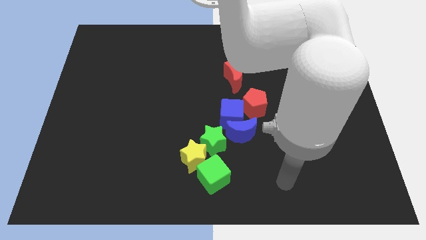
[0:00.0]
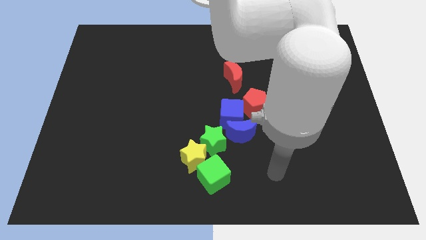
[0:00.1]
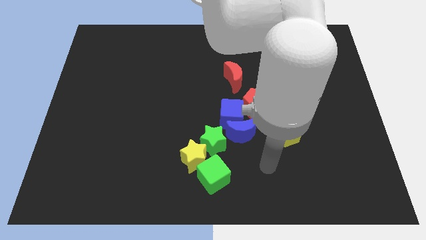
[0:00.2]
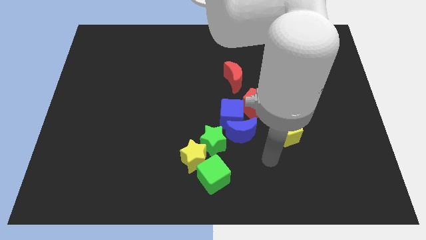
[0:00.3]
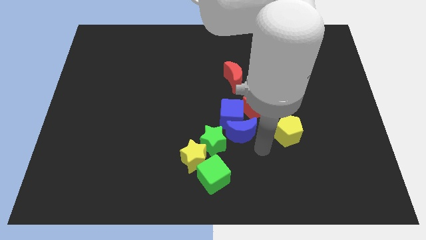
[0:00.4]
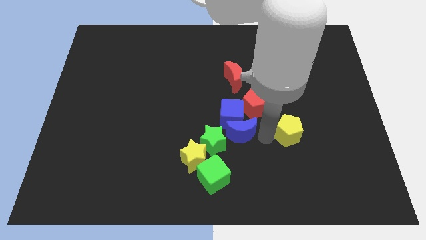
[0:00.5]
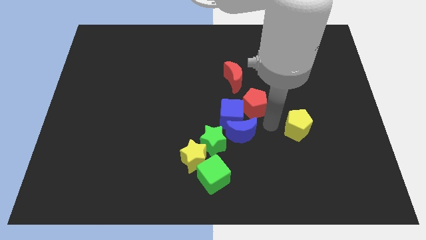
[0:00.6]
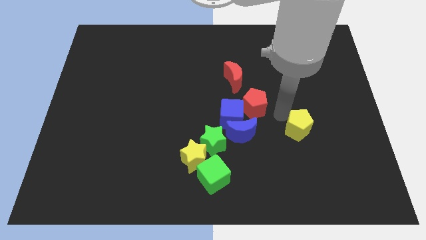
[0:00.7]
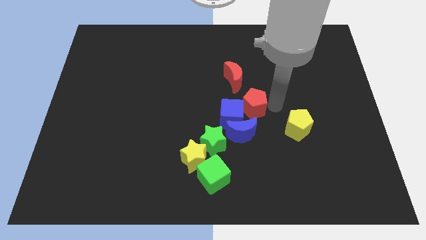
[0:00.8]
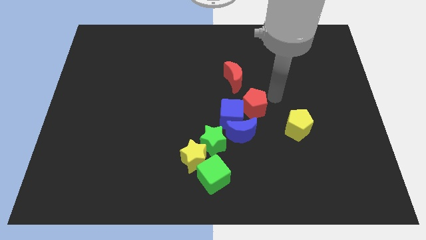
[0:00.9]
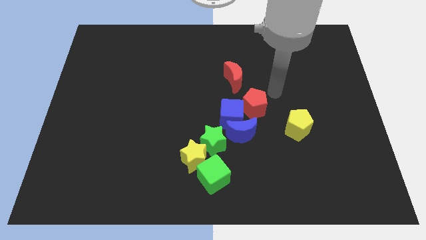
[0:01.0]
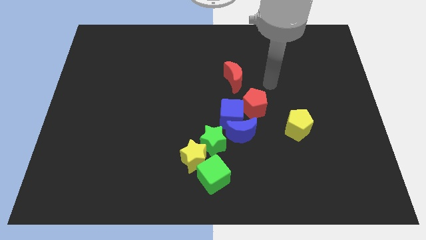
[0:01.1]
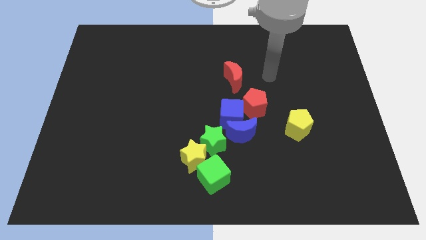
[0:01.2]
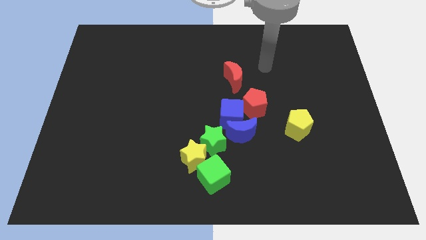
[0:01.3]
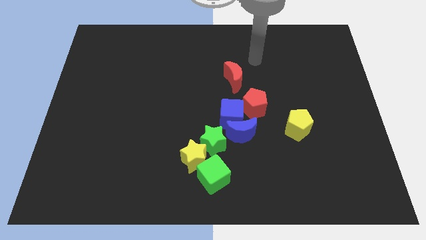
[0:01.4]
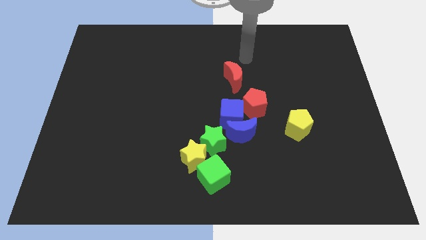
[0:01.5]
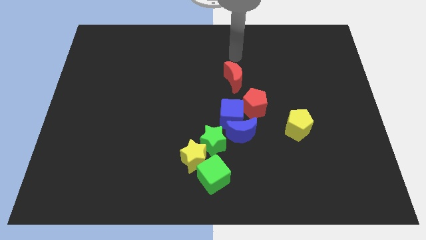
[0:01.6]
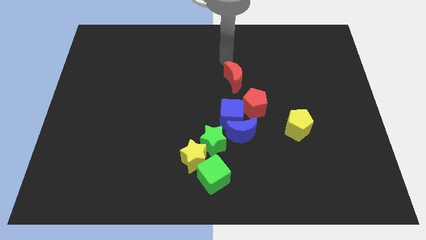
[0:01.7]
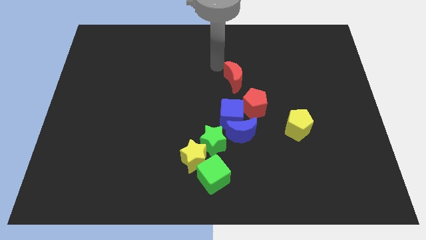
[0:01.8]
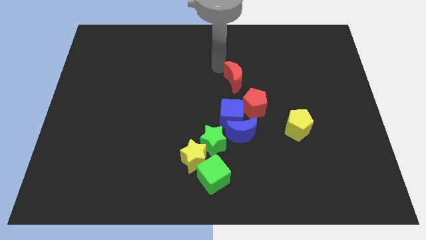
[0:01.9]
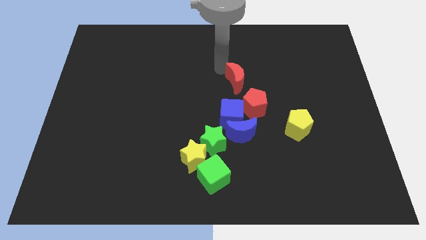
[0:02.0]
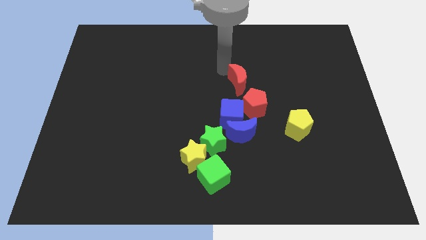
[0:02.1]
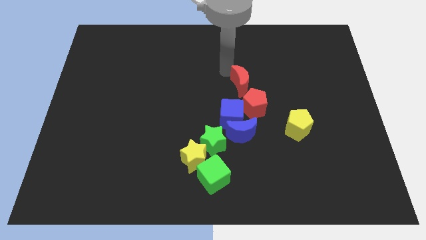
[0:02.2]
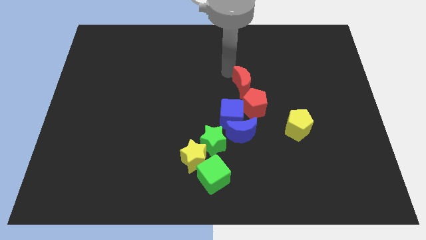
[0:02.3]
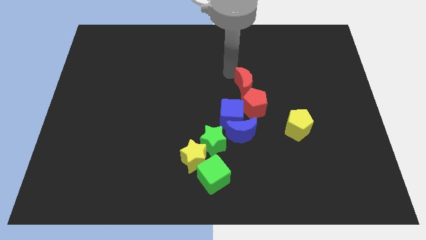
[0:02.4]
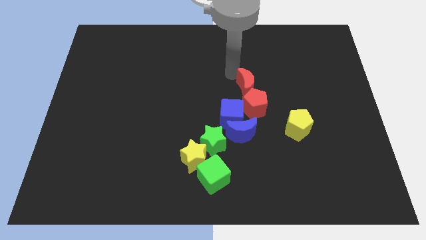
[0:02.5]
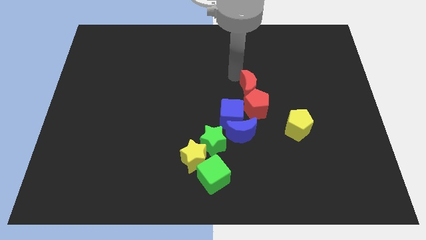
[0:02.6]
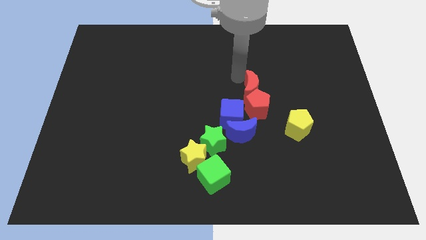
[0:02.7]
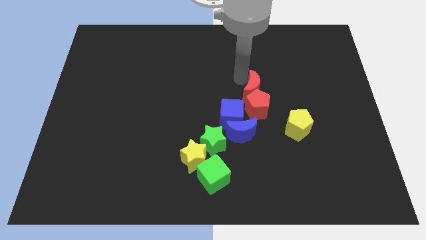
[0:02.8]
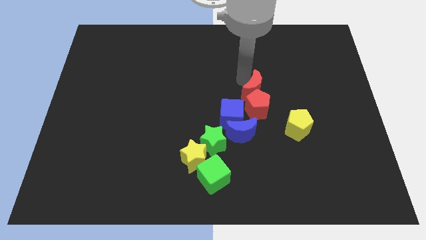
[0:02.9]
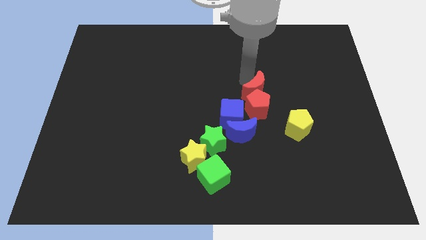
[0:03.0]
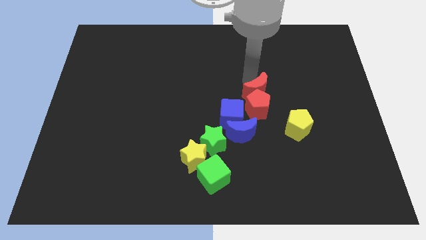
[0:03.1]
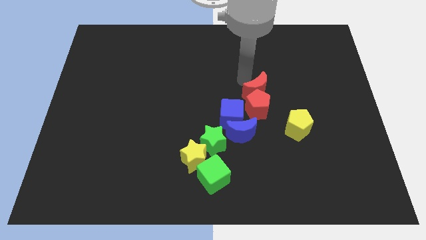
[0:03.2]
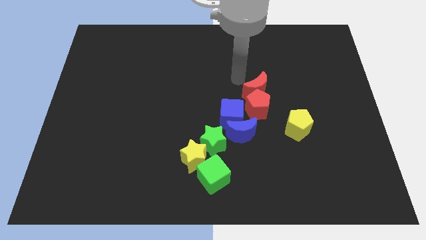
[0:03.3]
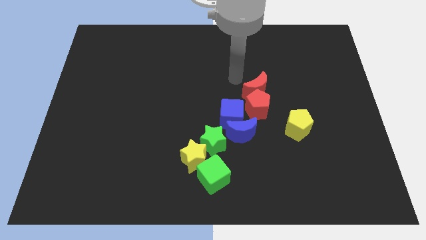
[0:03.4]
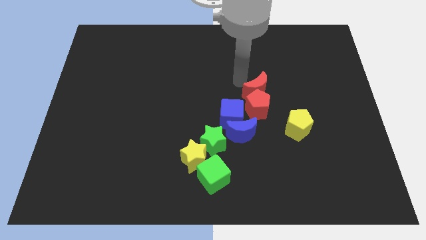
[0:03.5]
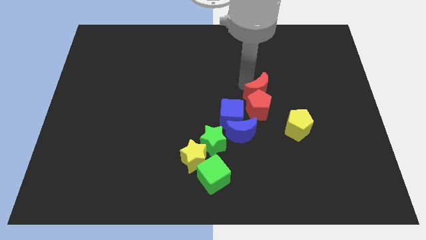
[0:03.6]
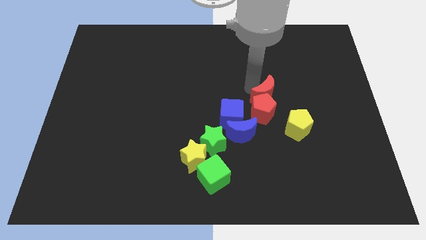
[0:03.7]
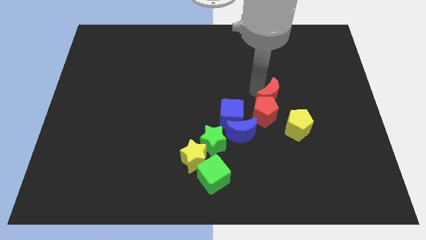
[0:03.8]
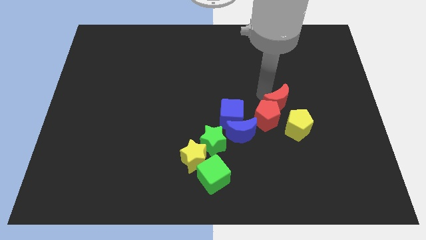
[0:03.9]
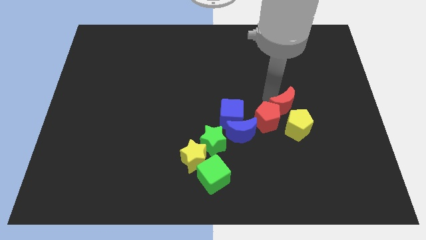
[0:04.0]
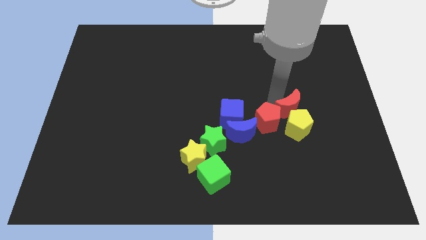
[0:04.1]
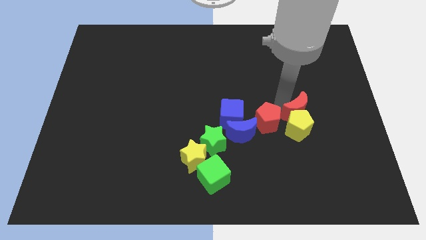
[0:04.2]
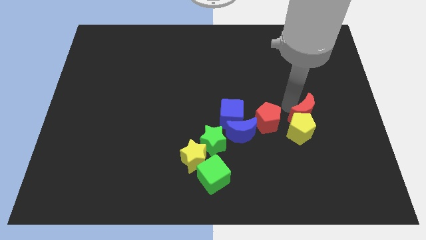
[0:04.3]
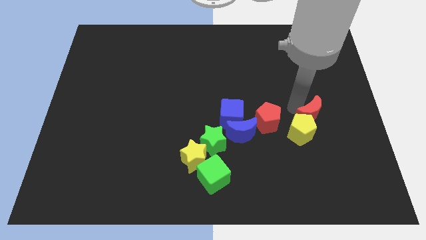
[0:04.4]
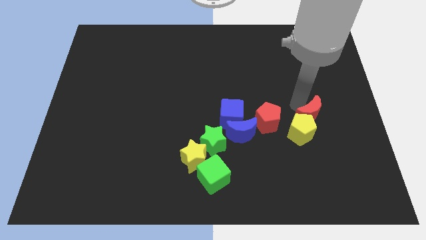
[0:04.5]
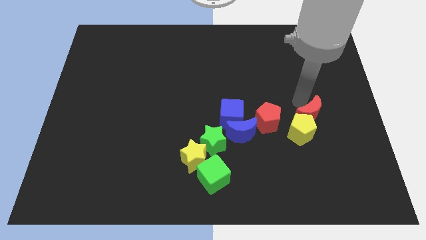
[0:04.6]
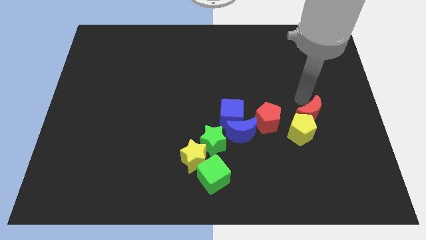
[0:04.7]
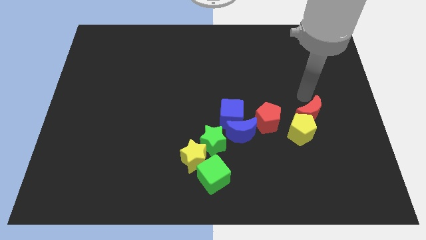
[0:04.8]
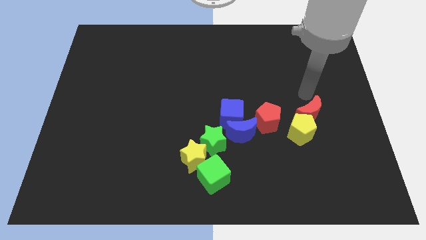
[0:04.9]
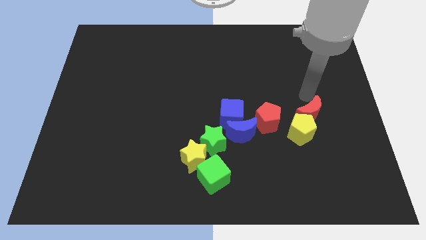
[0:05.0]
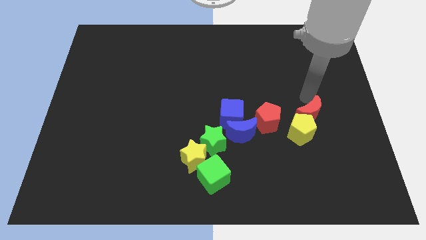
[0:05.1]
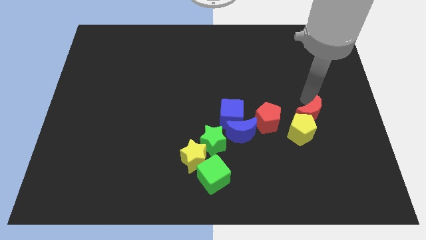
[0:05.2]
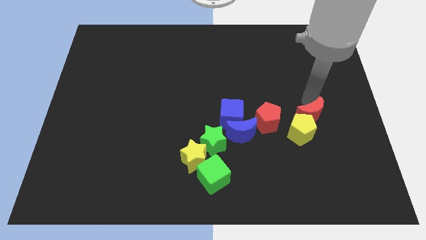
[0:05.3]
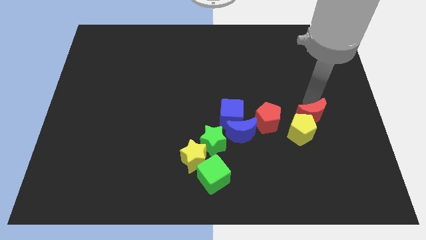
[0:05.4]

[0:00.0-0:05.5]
slide the red moon down and to the right diagonally

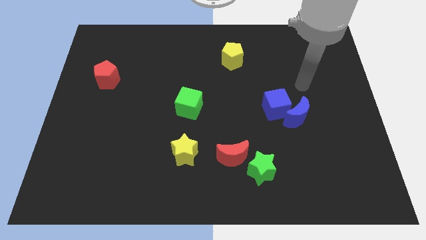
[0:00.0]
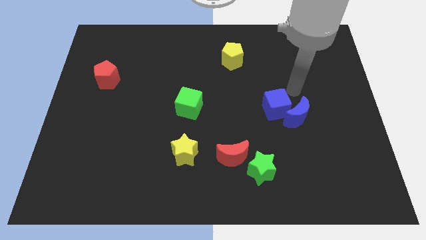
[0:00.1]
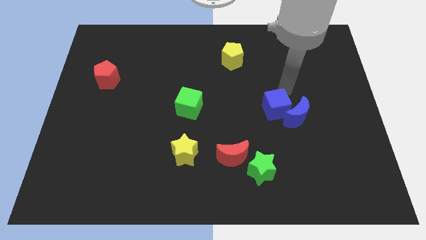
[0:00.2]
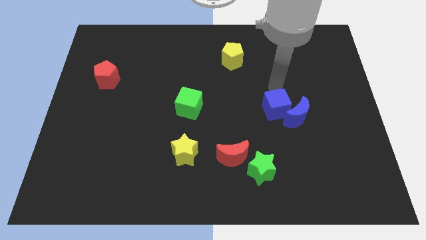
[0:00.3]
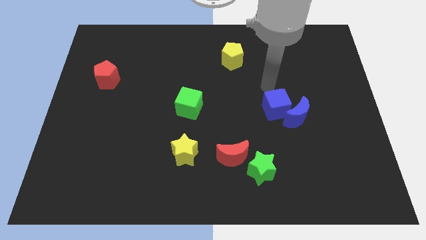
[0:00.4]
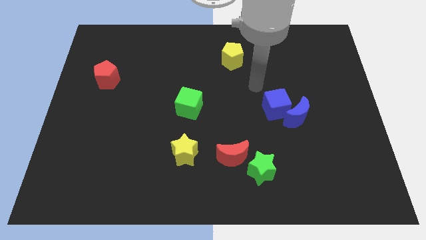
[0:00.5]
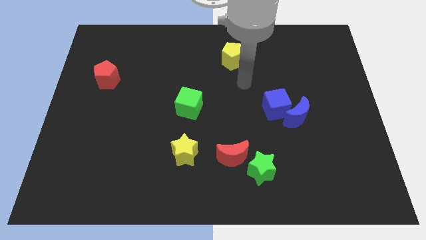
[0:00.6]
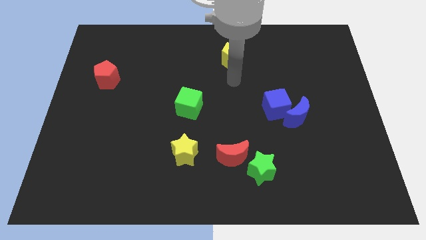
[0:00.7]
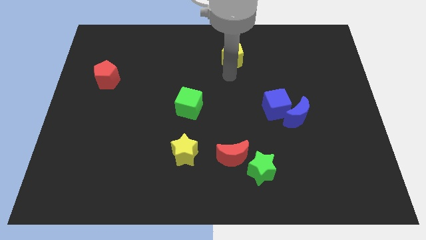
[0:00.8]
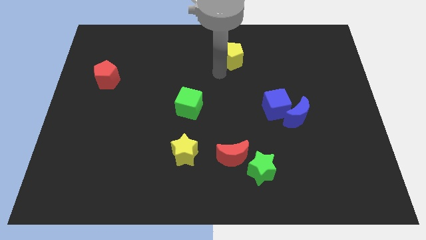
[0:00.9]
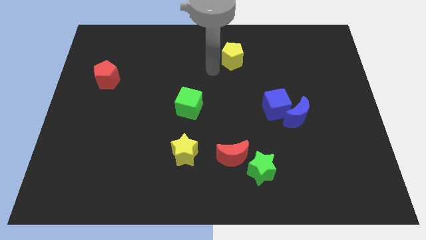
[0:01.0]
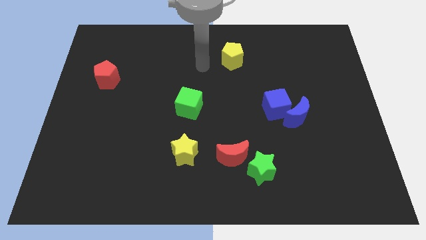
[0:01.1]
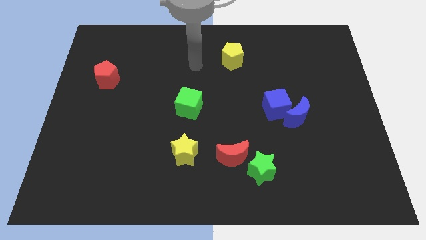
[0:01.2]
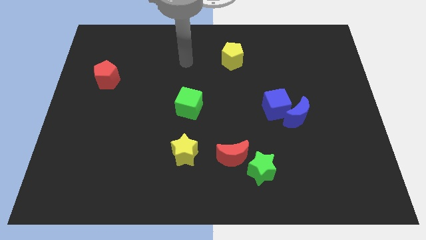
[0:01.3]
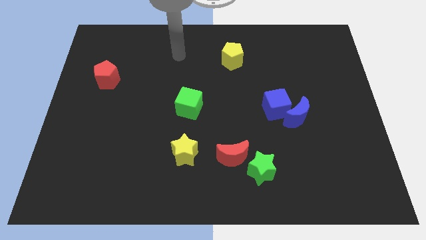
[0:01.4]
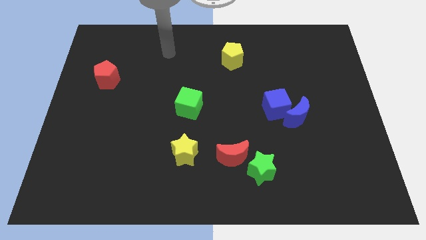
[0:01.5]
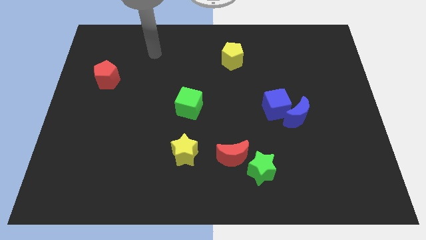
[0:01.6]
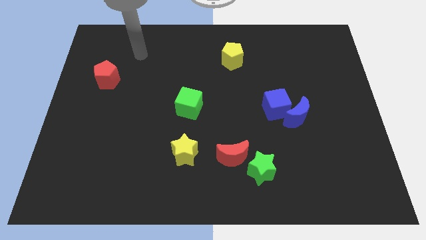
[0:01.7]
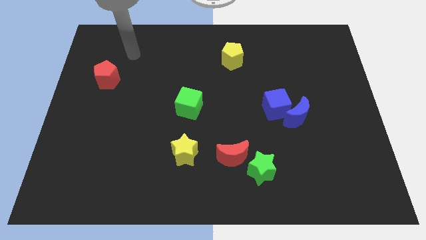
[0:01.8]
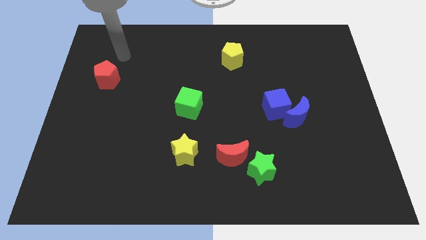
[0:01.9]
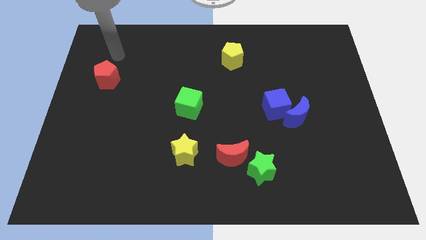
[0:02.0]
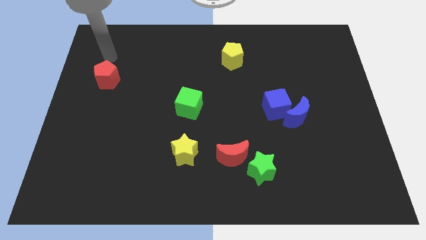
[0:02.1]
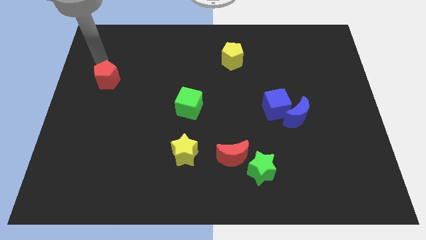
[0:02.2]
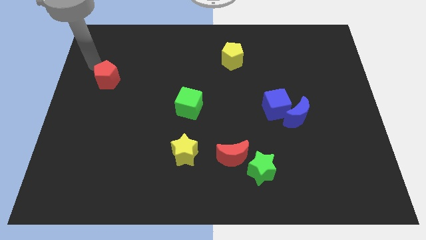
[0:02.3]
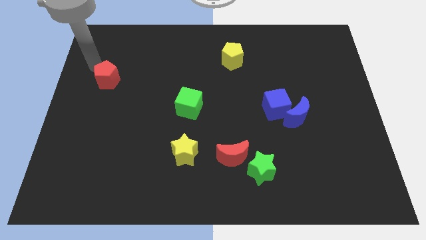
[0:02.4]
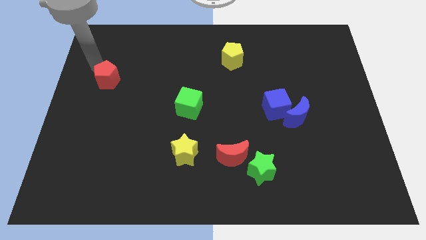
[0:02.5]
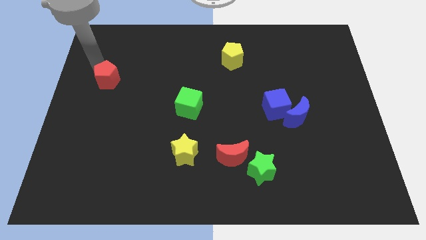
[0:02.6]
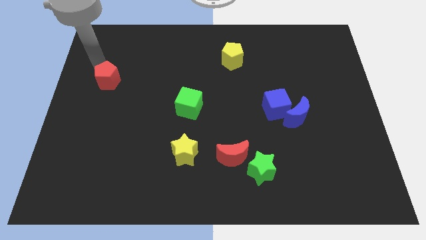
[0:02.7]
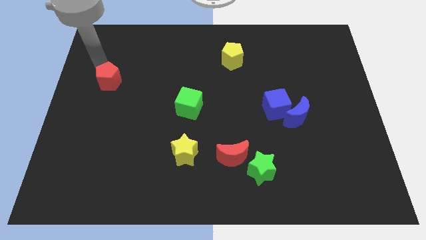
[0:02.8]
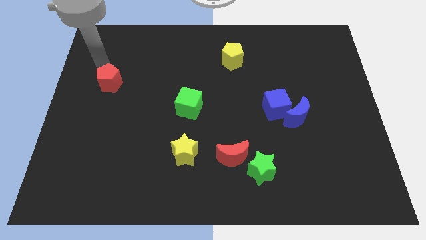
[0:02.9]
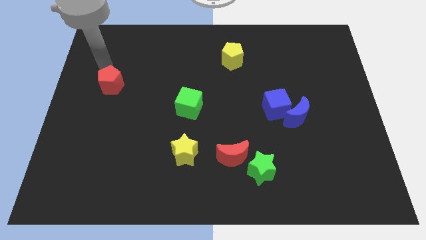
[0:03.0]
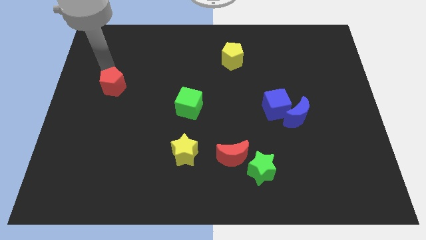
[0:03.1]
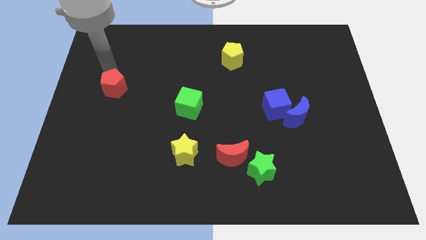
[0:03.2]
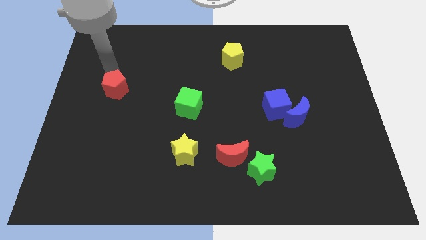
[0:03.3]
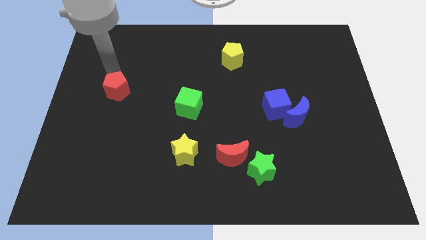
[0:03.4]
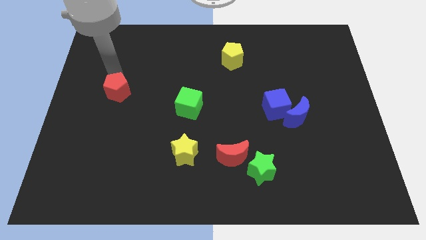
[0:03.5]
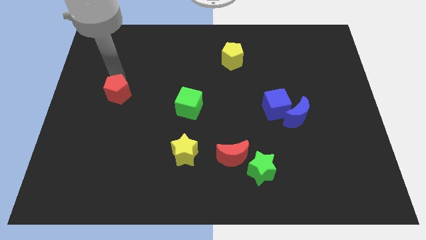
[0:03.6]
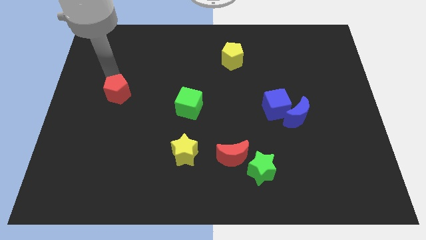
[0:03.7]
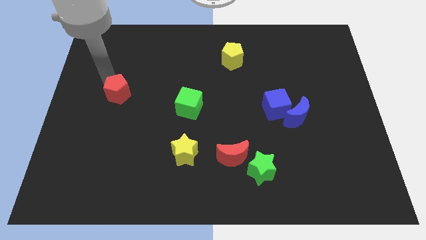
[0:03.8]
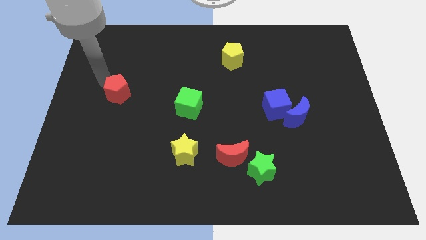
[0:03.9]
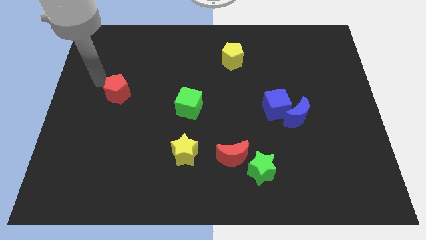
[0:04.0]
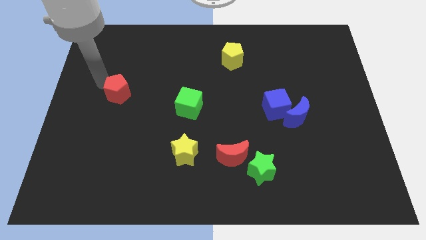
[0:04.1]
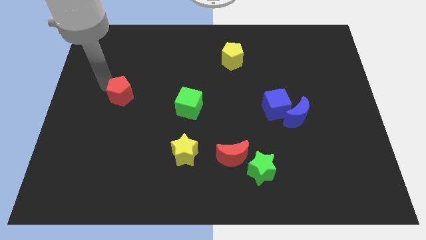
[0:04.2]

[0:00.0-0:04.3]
slightly push the red pentagon diagonally down and right
